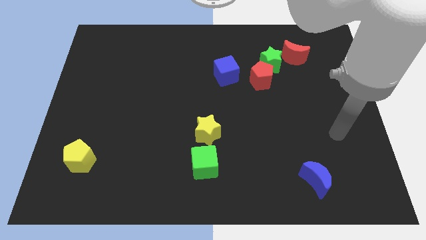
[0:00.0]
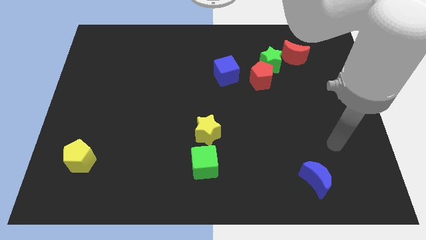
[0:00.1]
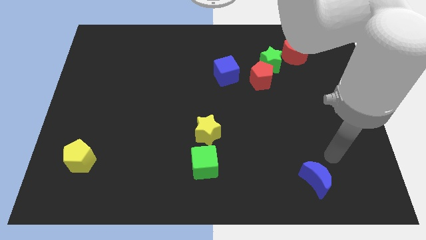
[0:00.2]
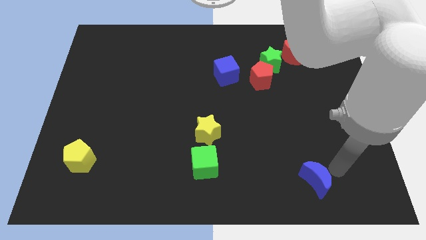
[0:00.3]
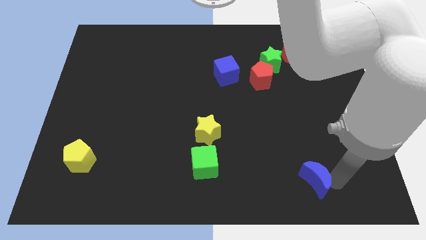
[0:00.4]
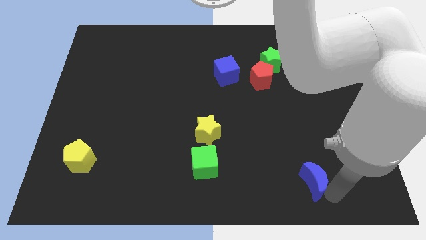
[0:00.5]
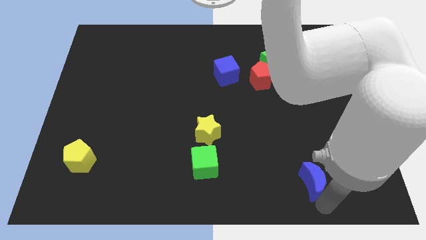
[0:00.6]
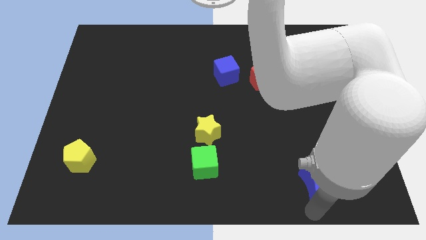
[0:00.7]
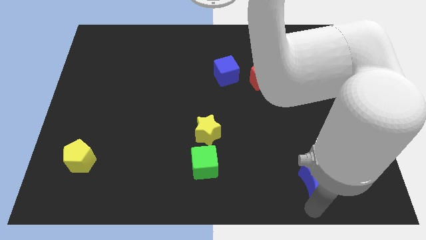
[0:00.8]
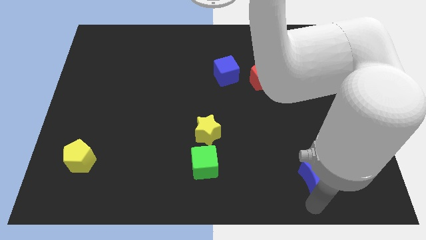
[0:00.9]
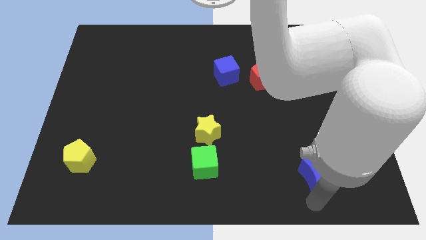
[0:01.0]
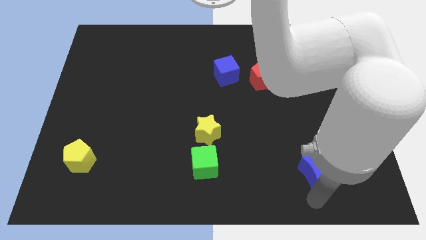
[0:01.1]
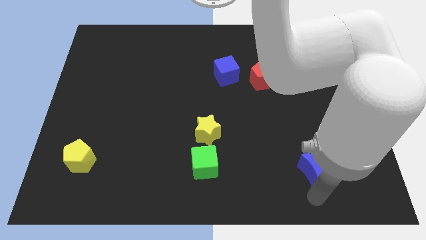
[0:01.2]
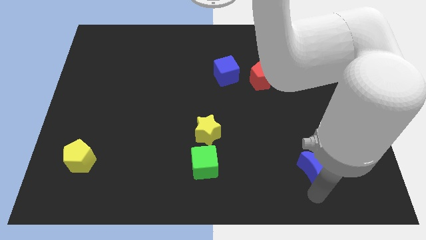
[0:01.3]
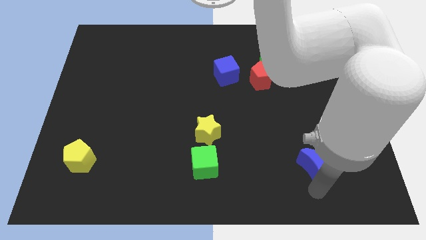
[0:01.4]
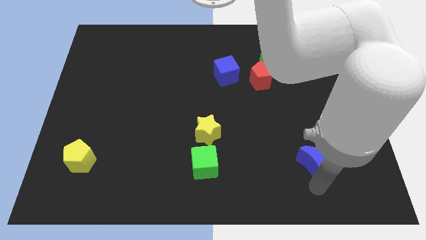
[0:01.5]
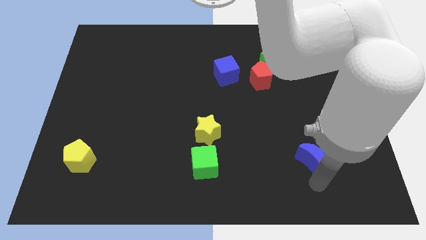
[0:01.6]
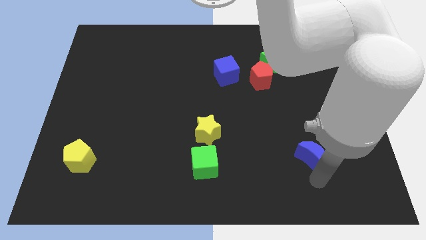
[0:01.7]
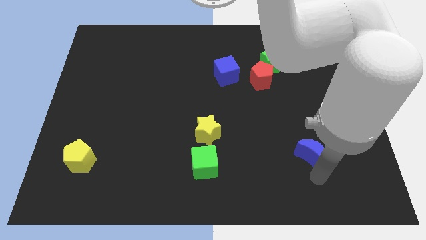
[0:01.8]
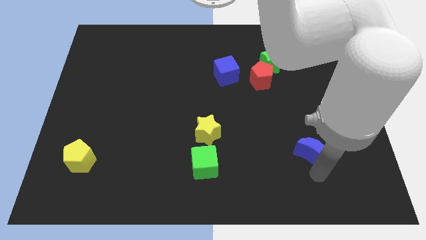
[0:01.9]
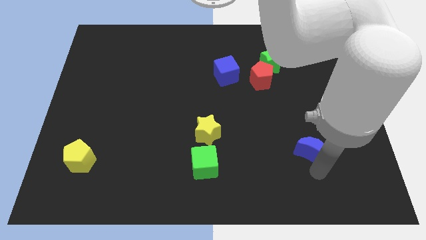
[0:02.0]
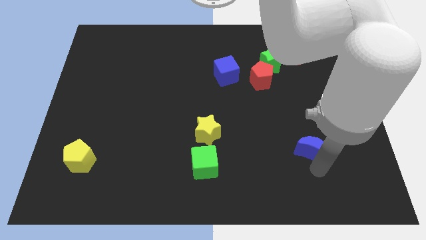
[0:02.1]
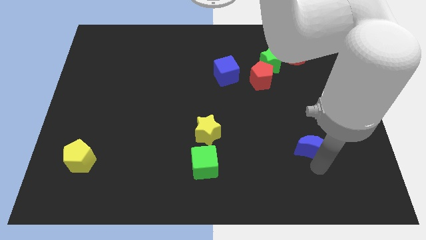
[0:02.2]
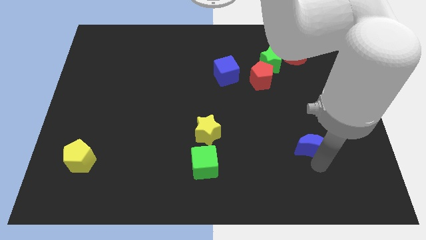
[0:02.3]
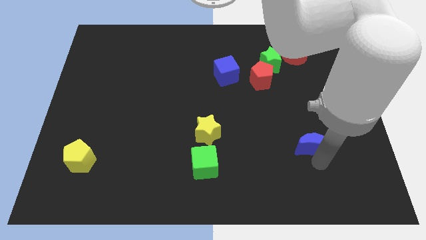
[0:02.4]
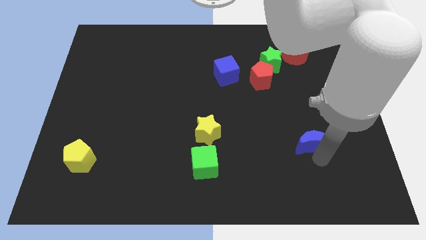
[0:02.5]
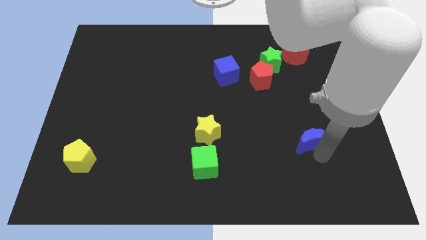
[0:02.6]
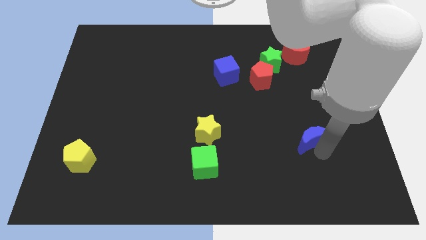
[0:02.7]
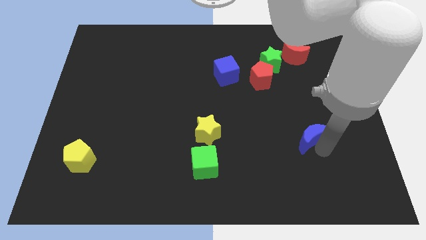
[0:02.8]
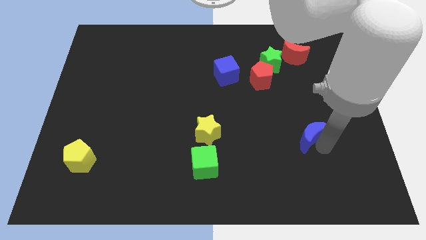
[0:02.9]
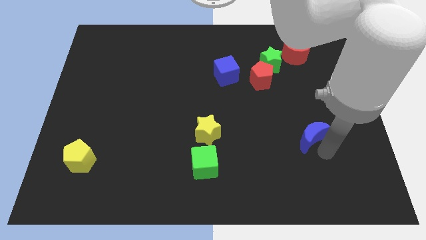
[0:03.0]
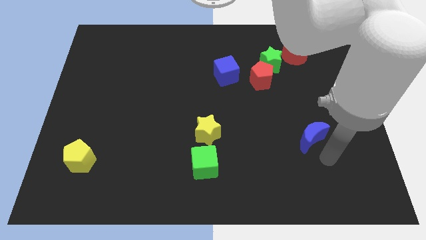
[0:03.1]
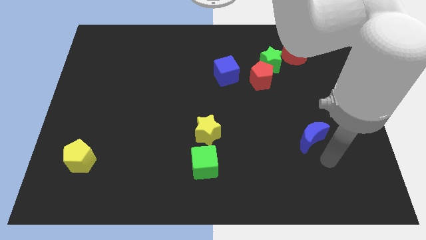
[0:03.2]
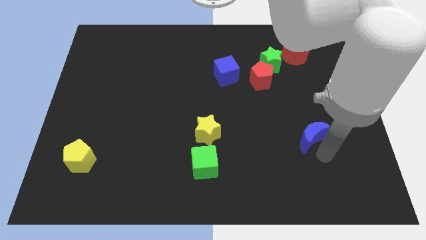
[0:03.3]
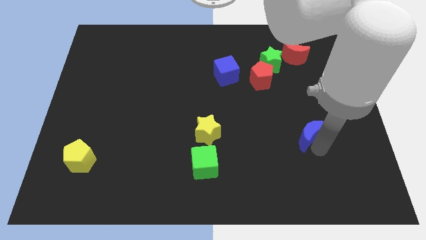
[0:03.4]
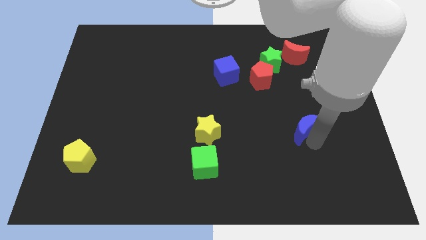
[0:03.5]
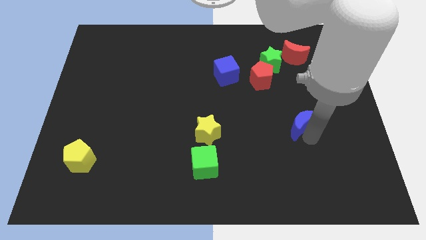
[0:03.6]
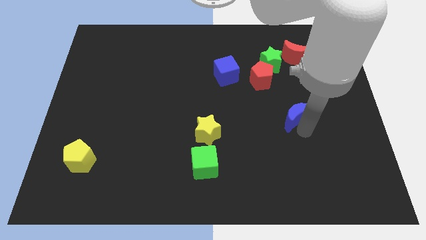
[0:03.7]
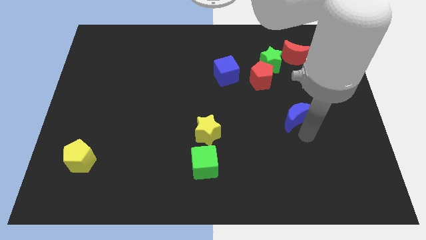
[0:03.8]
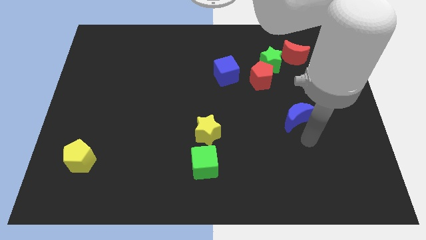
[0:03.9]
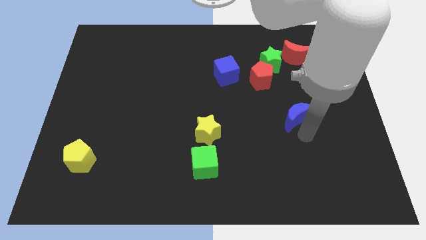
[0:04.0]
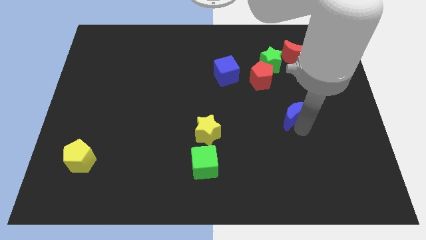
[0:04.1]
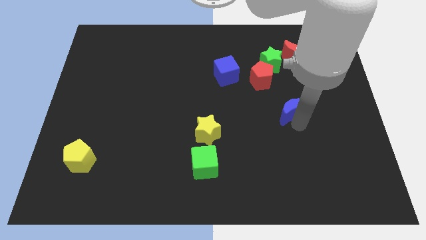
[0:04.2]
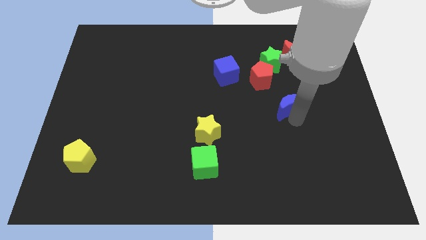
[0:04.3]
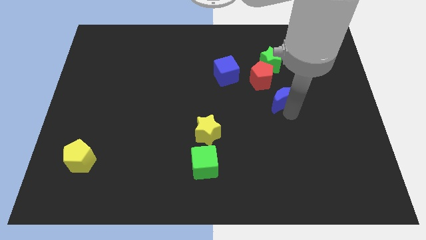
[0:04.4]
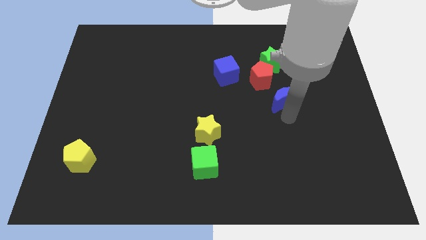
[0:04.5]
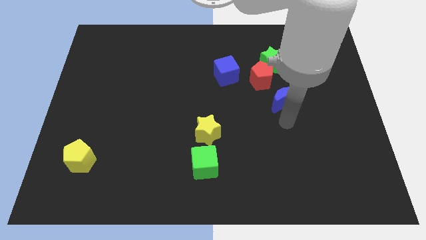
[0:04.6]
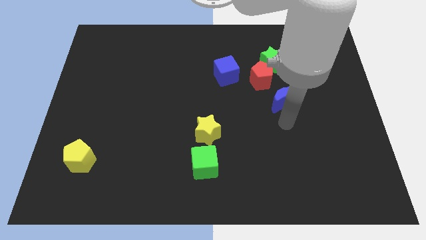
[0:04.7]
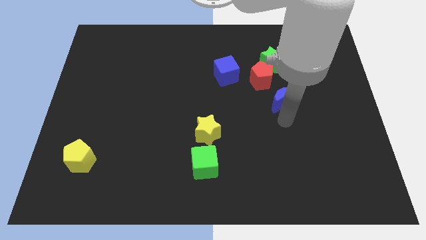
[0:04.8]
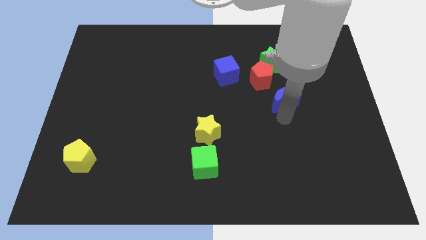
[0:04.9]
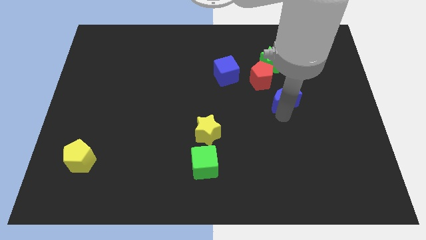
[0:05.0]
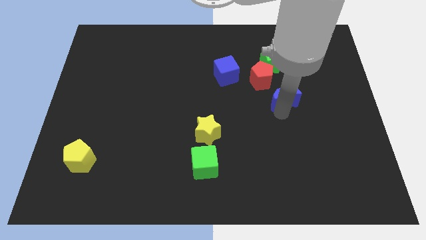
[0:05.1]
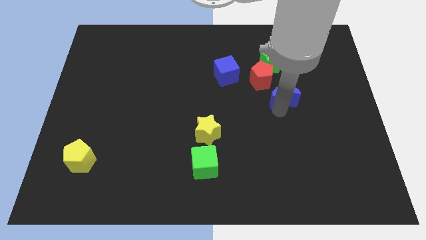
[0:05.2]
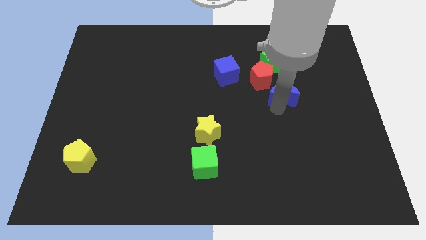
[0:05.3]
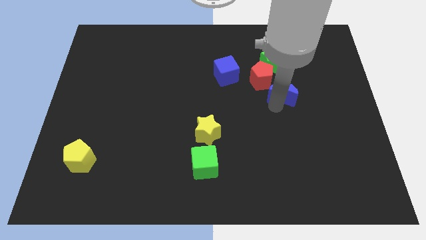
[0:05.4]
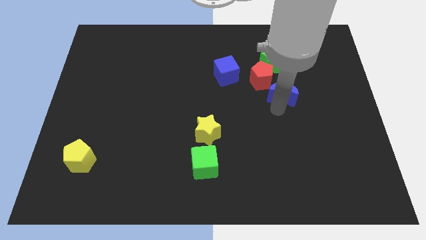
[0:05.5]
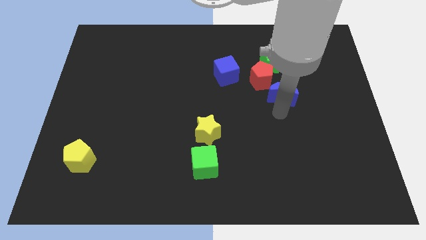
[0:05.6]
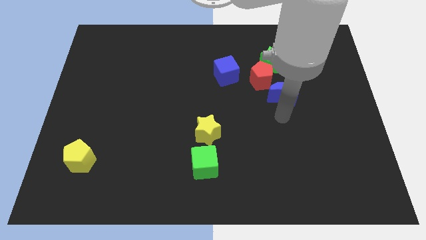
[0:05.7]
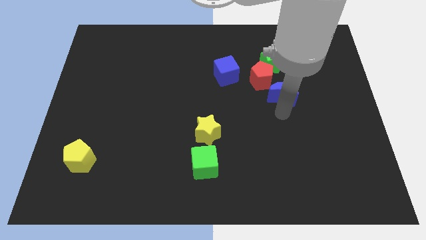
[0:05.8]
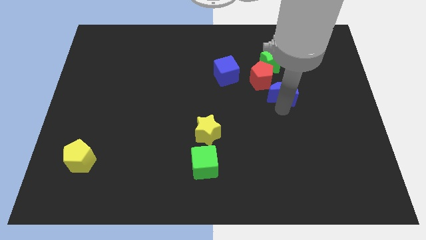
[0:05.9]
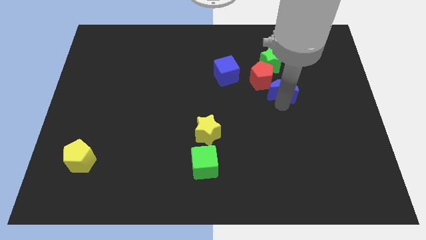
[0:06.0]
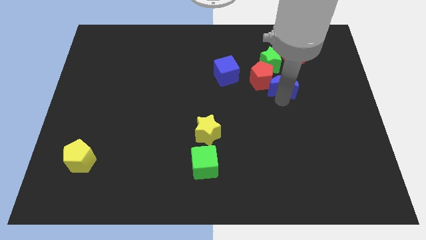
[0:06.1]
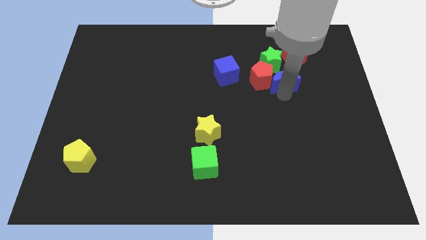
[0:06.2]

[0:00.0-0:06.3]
push the blue moon just right of the blue cube
